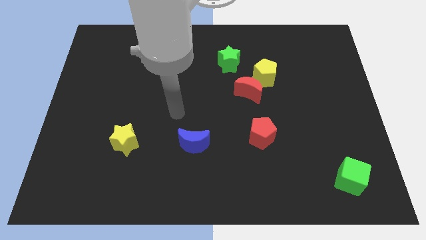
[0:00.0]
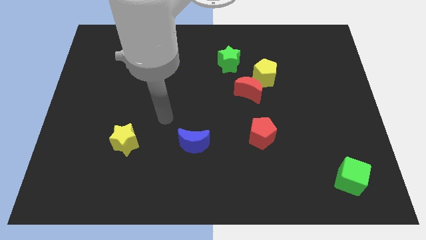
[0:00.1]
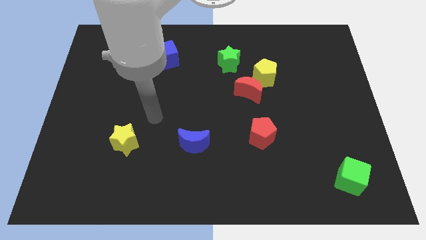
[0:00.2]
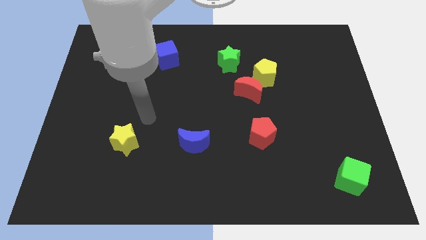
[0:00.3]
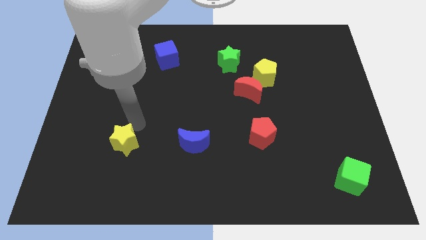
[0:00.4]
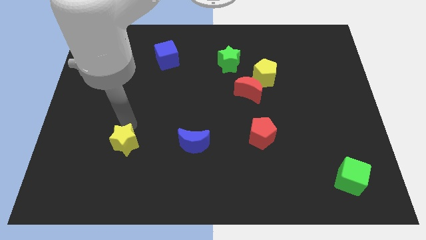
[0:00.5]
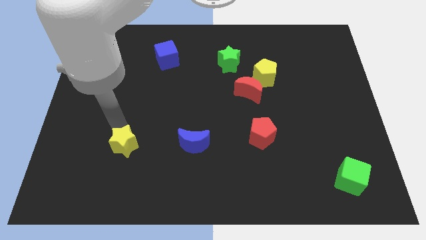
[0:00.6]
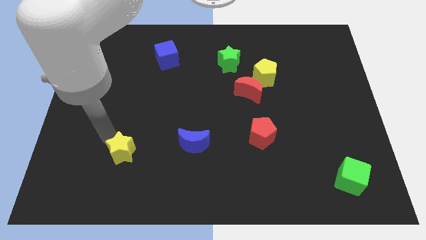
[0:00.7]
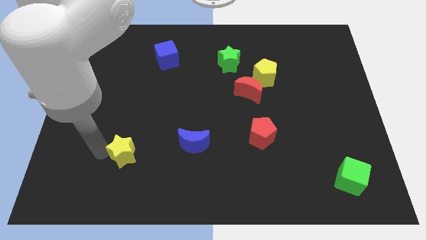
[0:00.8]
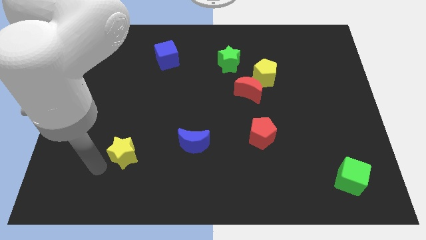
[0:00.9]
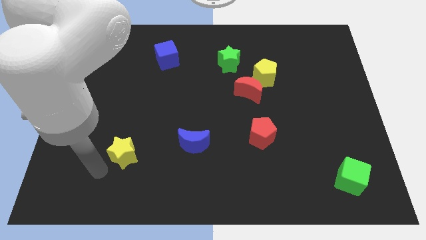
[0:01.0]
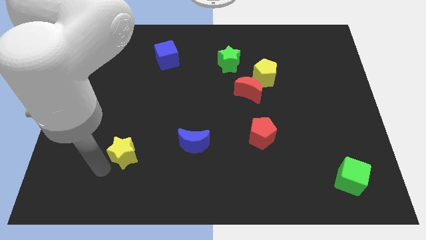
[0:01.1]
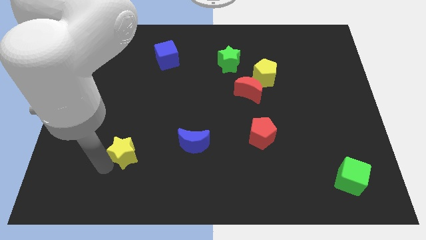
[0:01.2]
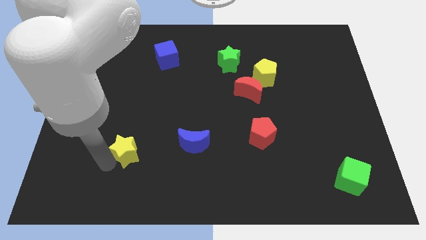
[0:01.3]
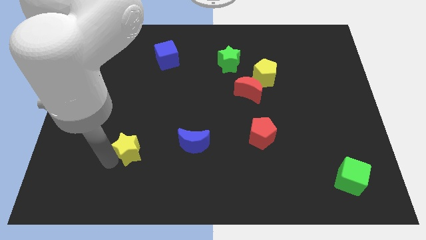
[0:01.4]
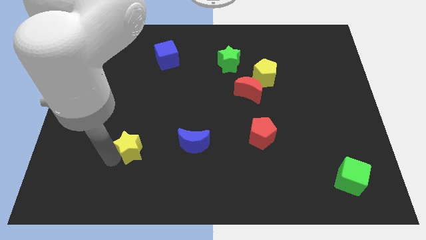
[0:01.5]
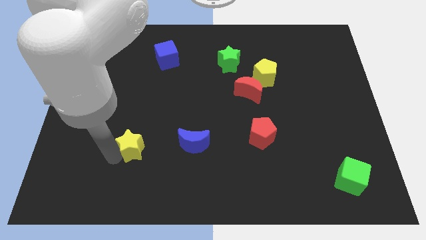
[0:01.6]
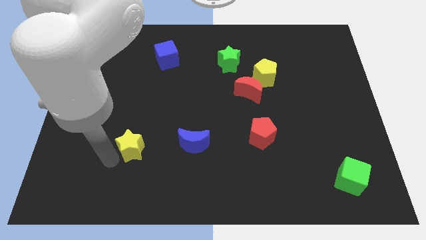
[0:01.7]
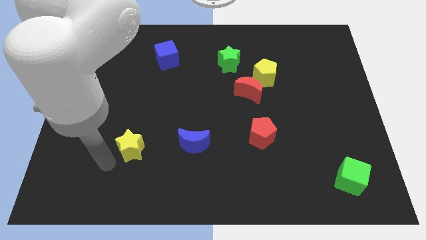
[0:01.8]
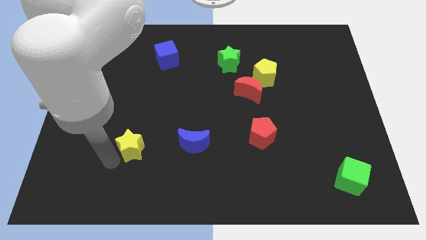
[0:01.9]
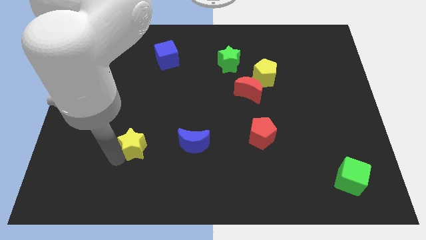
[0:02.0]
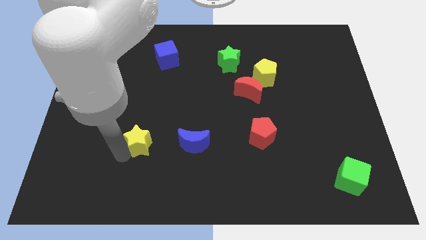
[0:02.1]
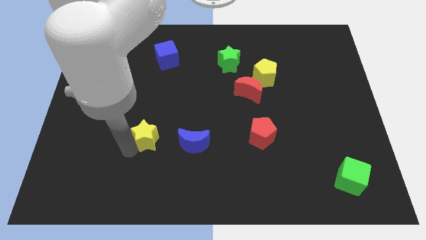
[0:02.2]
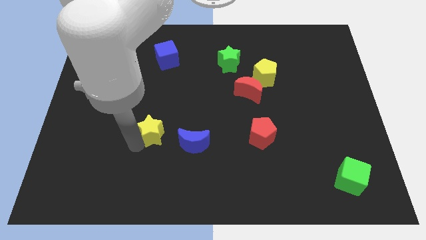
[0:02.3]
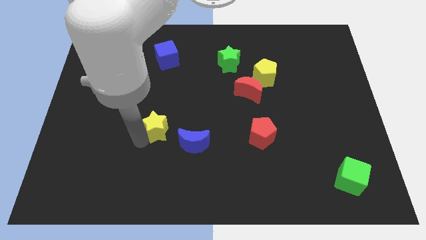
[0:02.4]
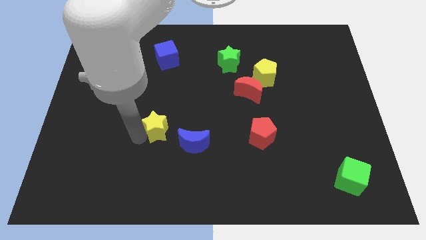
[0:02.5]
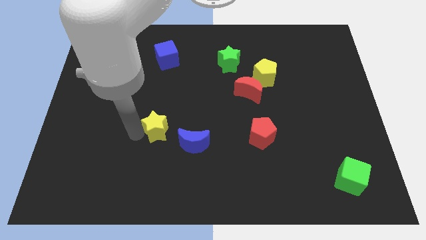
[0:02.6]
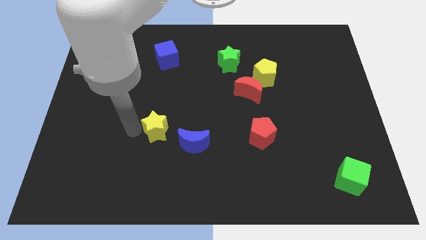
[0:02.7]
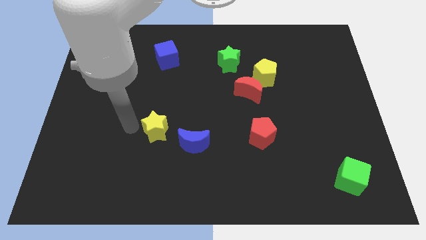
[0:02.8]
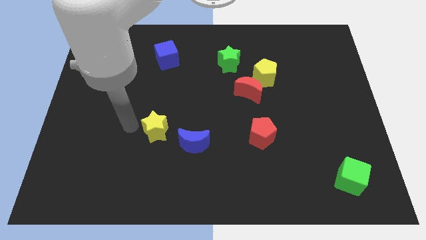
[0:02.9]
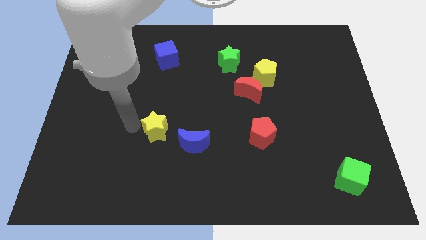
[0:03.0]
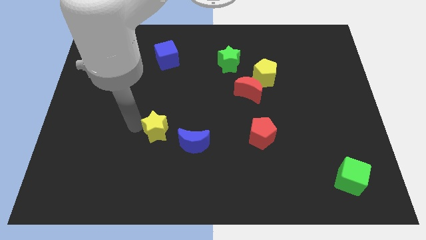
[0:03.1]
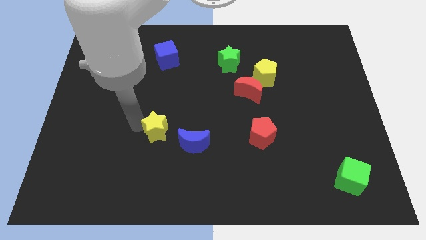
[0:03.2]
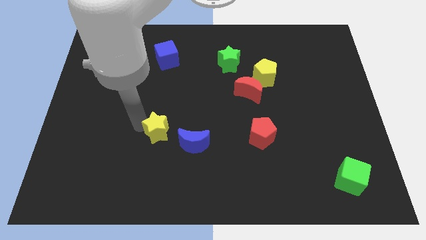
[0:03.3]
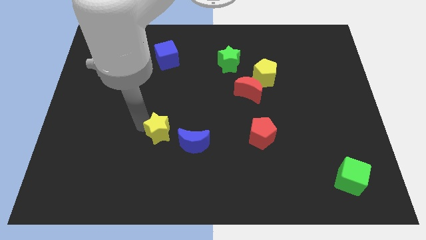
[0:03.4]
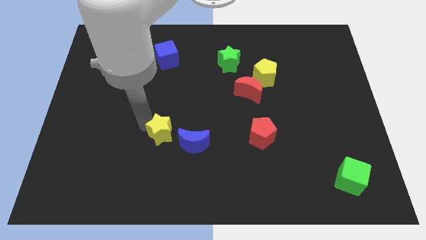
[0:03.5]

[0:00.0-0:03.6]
slide the yellow star somewhat to the right

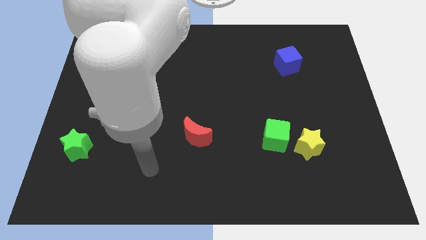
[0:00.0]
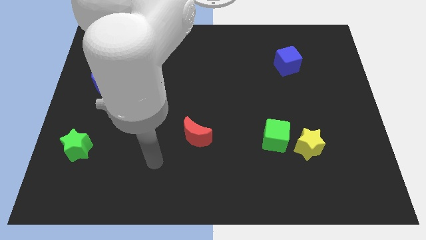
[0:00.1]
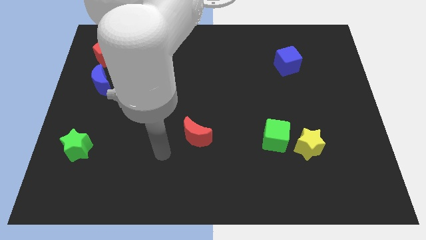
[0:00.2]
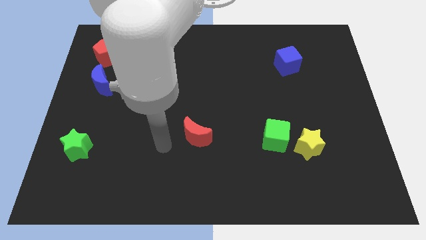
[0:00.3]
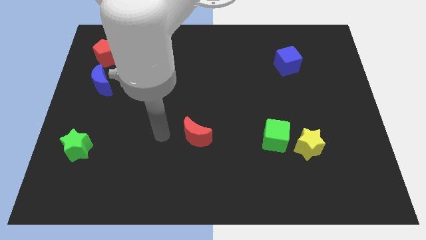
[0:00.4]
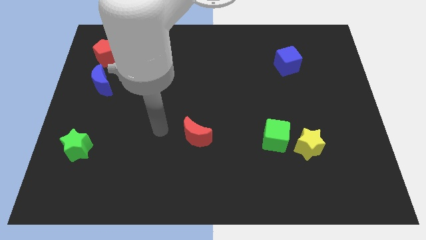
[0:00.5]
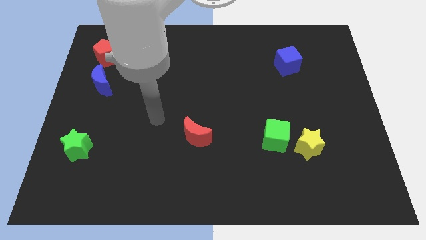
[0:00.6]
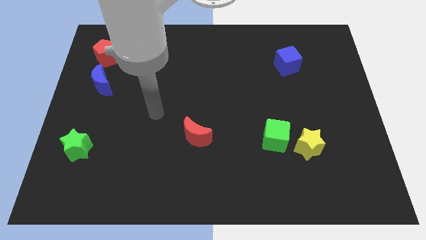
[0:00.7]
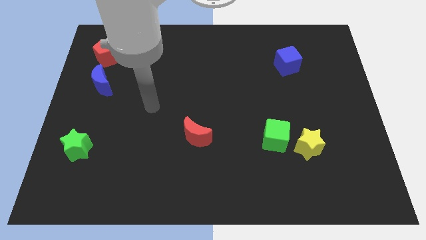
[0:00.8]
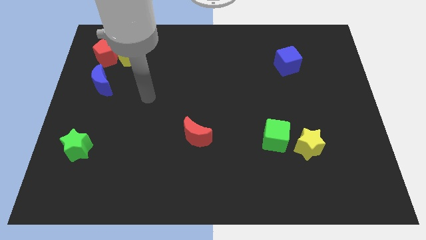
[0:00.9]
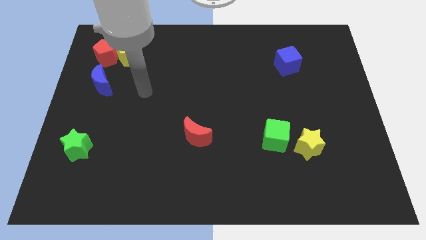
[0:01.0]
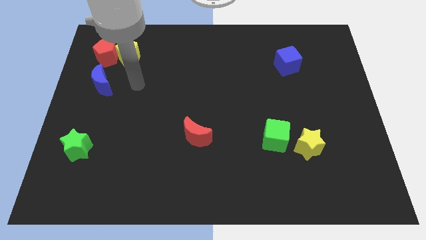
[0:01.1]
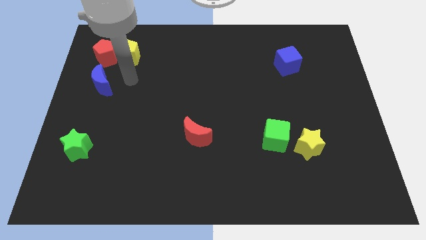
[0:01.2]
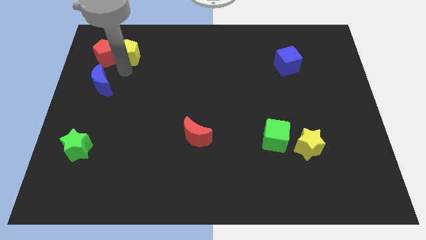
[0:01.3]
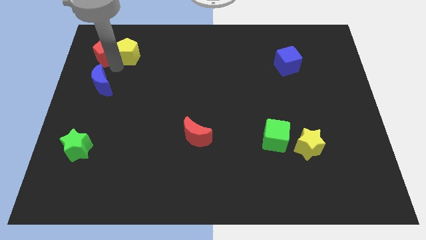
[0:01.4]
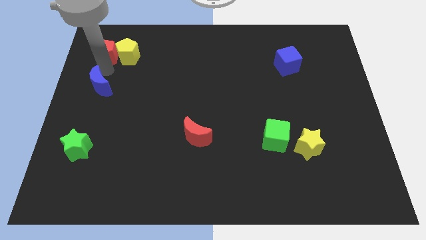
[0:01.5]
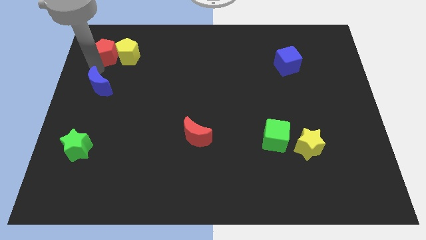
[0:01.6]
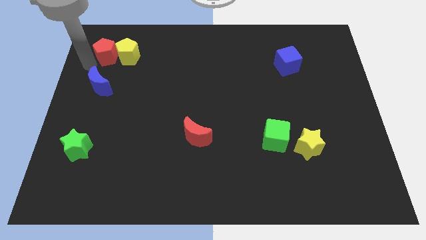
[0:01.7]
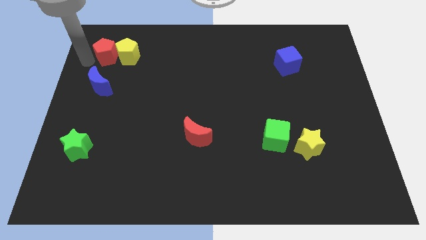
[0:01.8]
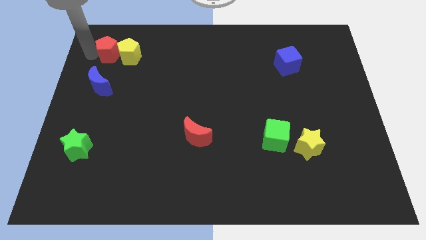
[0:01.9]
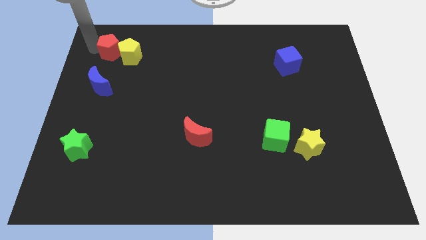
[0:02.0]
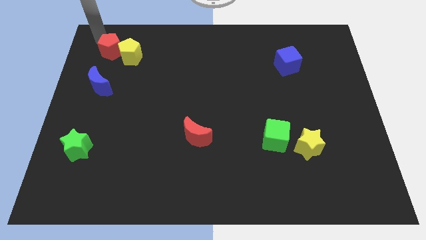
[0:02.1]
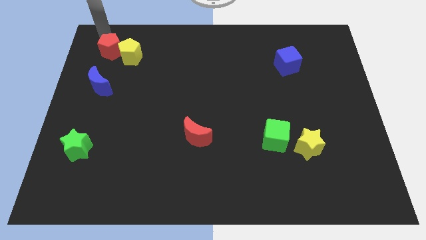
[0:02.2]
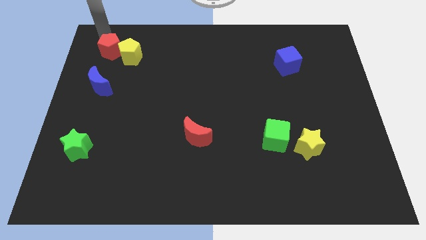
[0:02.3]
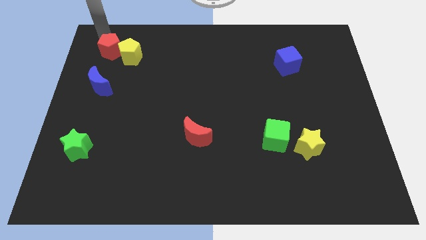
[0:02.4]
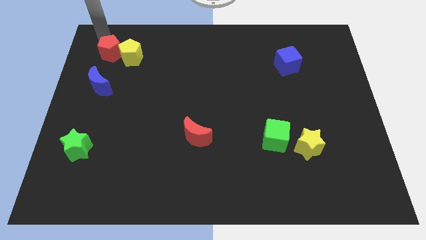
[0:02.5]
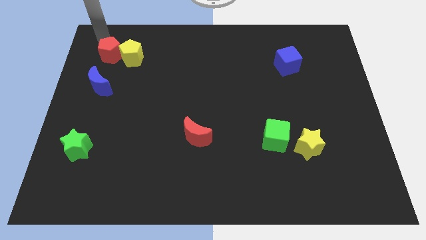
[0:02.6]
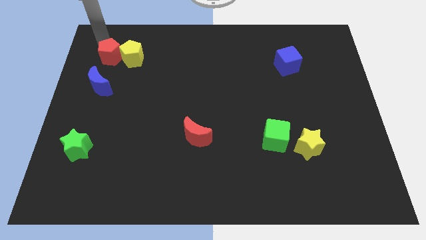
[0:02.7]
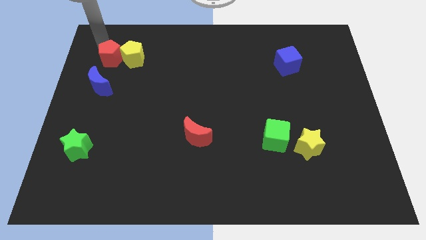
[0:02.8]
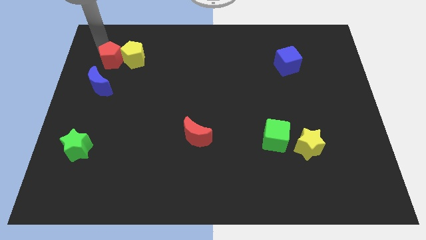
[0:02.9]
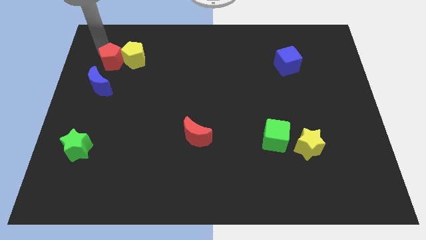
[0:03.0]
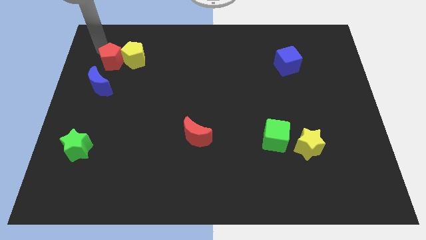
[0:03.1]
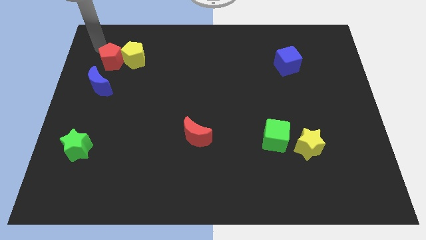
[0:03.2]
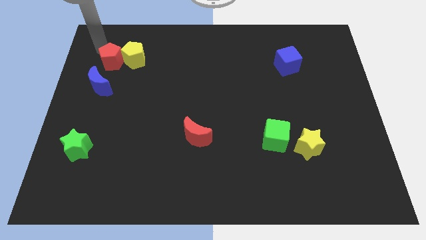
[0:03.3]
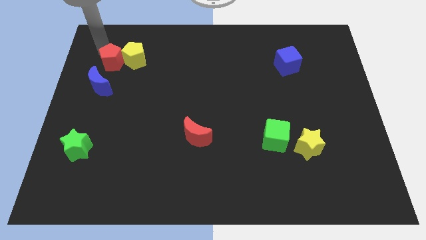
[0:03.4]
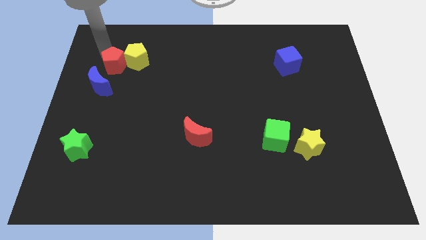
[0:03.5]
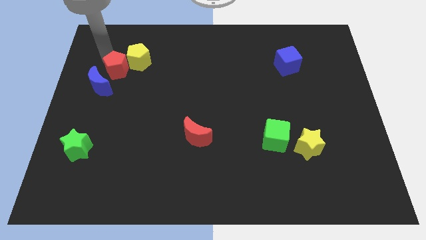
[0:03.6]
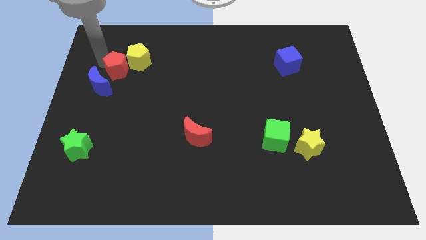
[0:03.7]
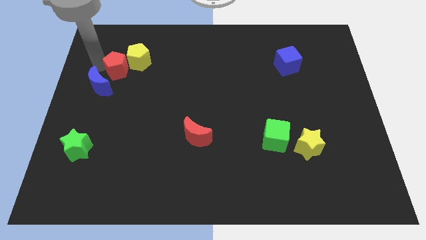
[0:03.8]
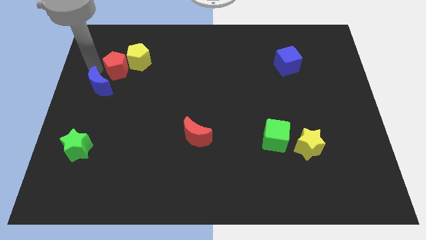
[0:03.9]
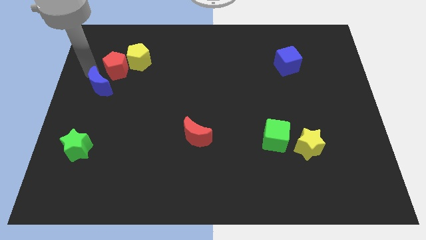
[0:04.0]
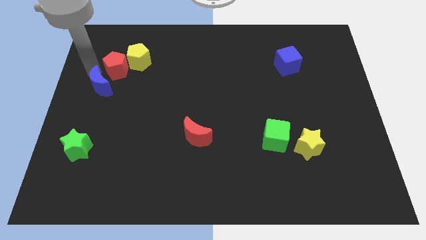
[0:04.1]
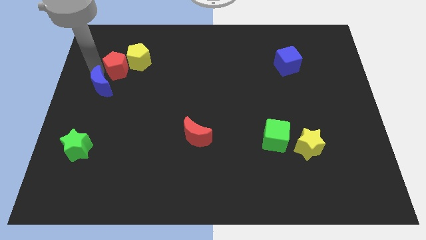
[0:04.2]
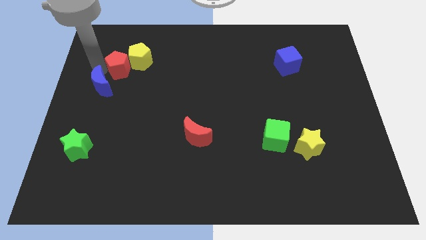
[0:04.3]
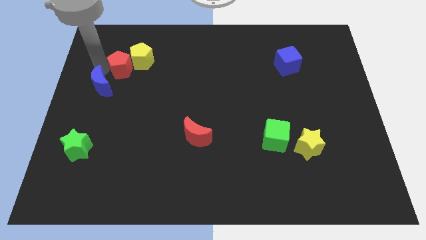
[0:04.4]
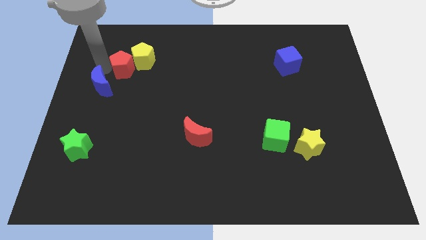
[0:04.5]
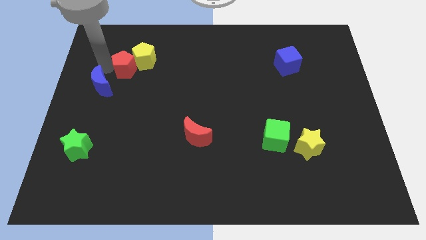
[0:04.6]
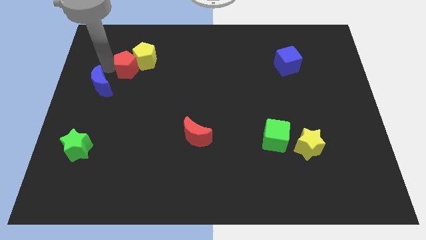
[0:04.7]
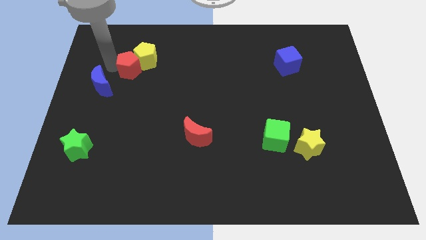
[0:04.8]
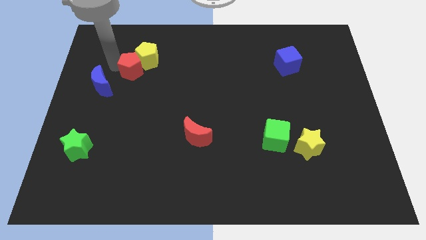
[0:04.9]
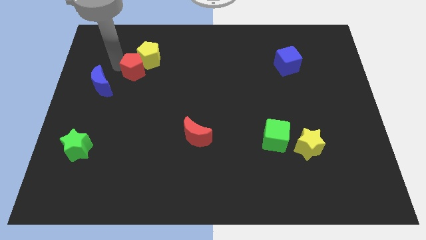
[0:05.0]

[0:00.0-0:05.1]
move the red pentagon slightly to the right
